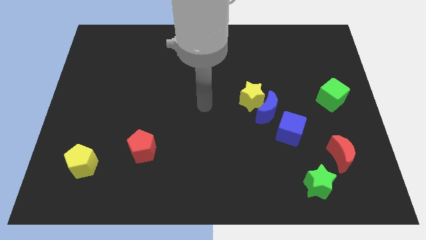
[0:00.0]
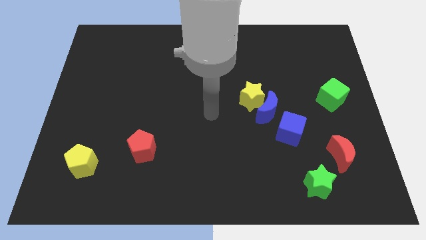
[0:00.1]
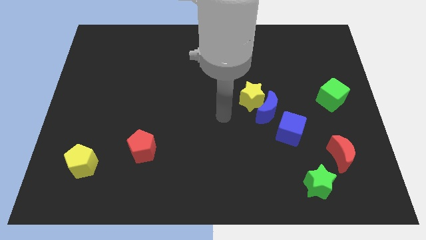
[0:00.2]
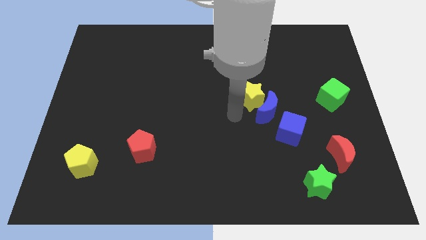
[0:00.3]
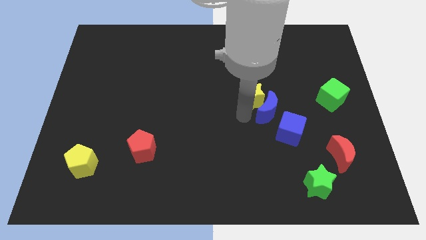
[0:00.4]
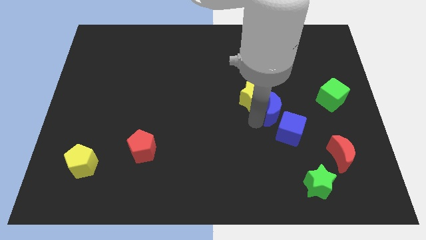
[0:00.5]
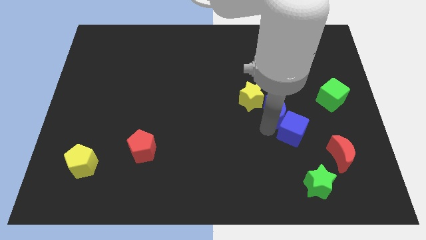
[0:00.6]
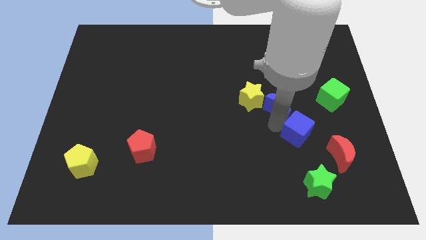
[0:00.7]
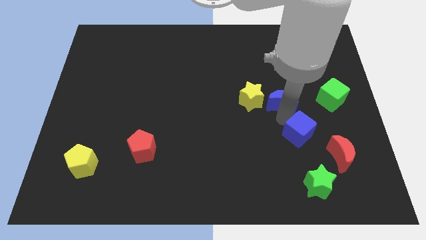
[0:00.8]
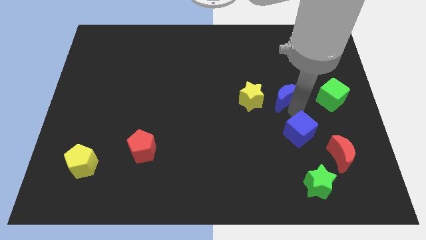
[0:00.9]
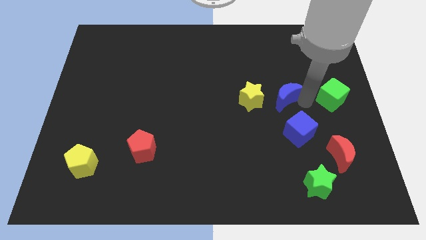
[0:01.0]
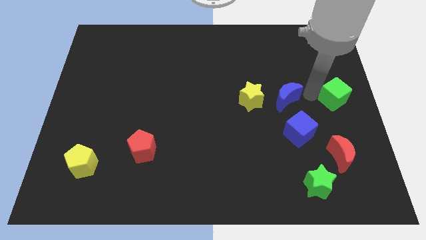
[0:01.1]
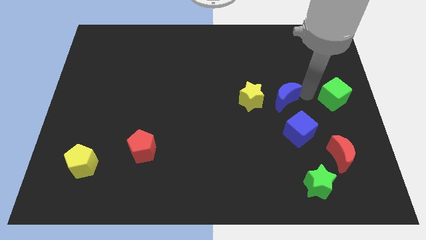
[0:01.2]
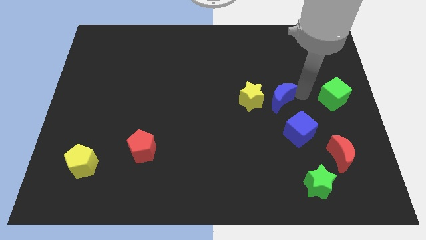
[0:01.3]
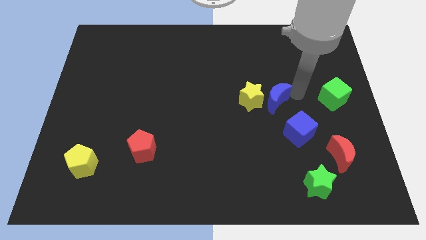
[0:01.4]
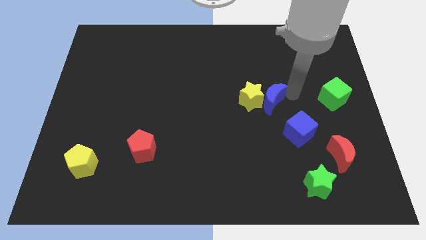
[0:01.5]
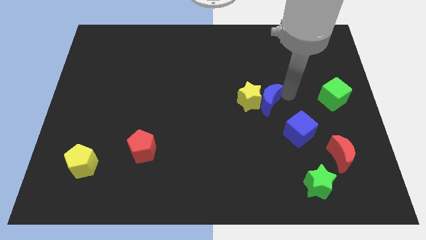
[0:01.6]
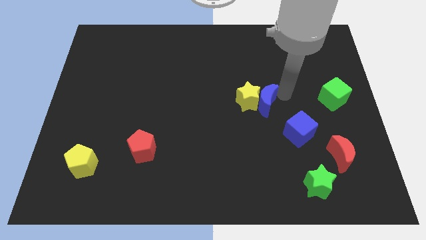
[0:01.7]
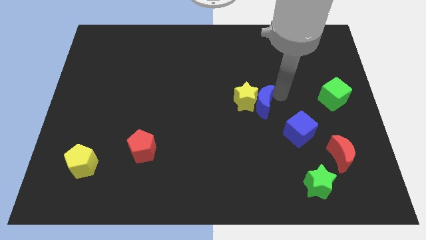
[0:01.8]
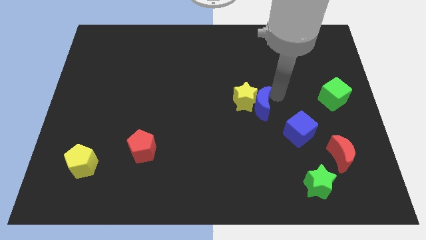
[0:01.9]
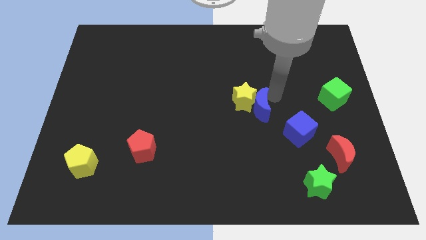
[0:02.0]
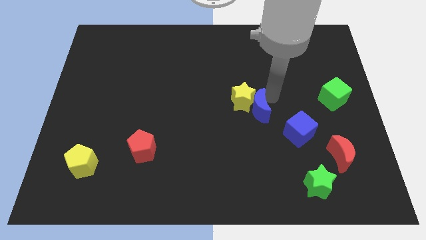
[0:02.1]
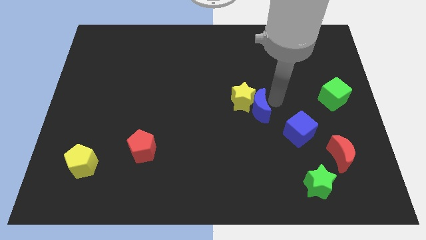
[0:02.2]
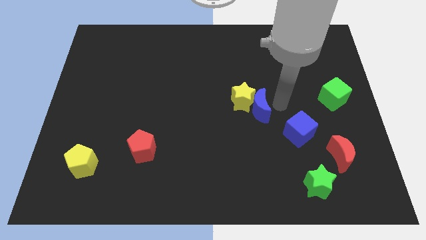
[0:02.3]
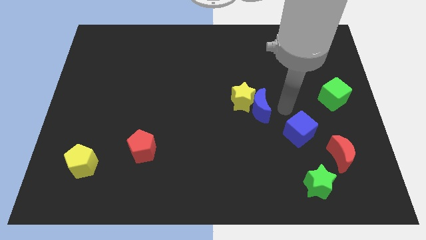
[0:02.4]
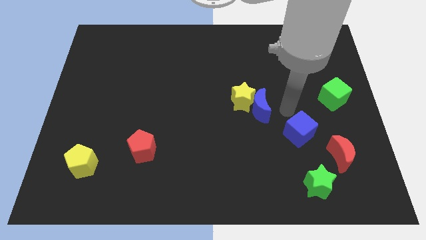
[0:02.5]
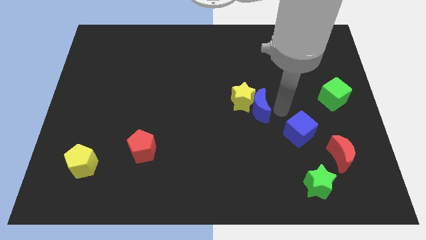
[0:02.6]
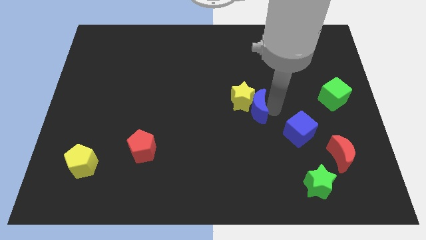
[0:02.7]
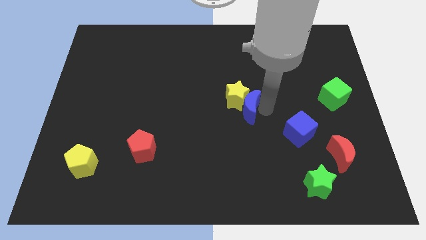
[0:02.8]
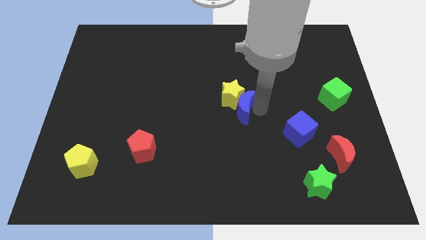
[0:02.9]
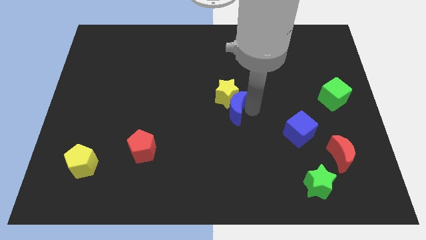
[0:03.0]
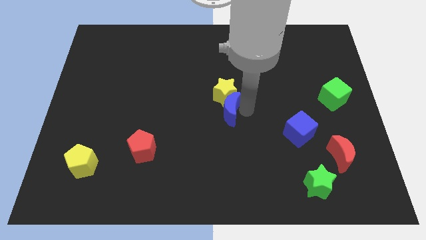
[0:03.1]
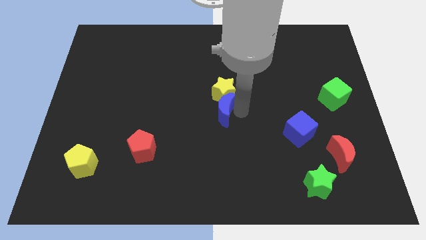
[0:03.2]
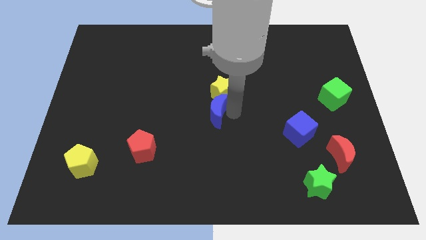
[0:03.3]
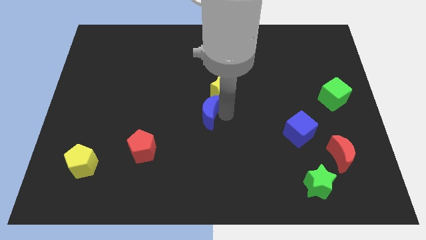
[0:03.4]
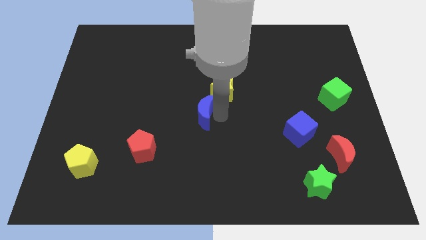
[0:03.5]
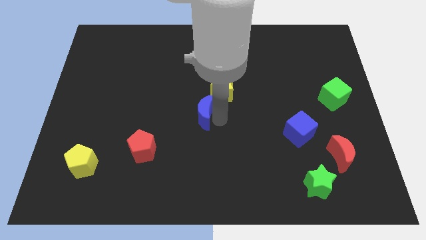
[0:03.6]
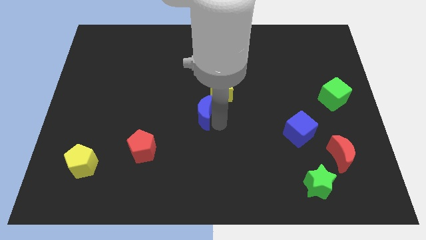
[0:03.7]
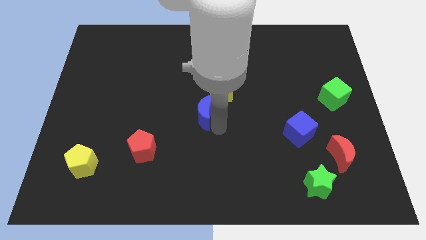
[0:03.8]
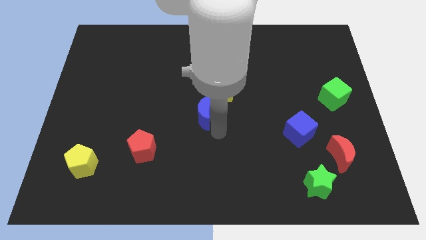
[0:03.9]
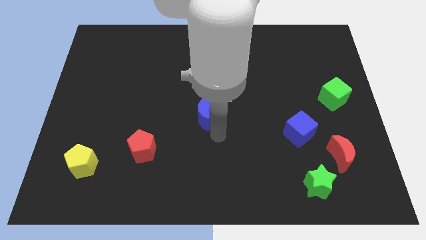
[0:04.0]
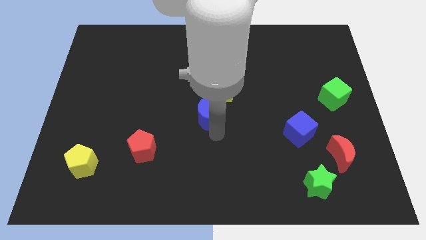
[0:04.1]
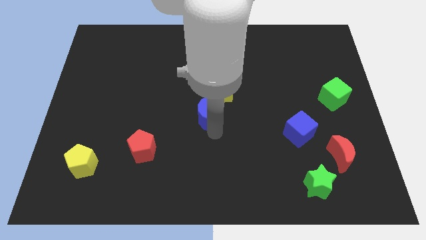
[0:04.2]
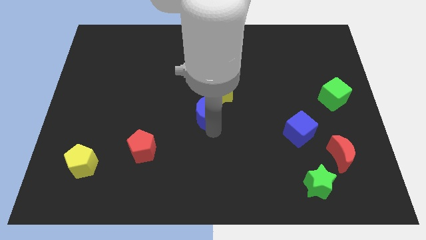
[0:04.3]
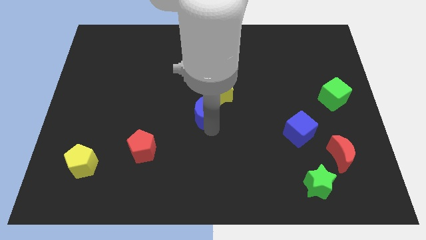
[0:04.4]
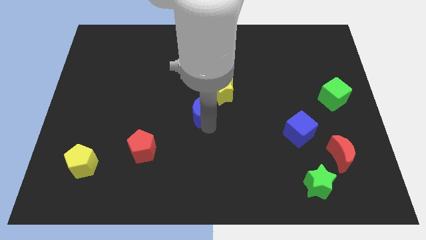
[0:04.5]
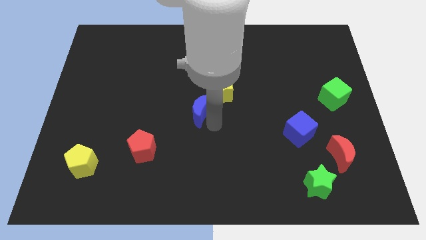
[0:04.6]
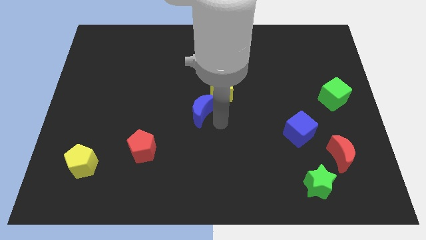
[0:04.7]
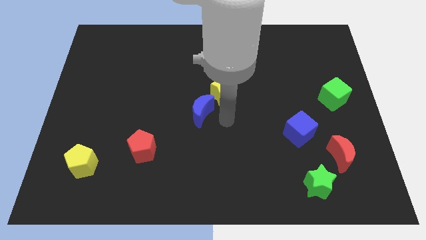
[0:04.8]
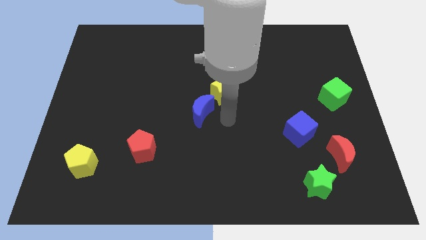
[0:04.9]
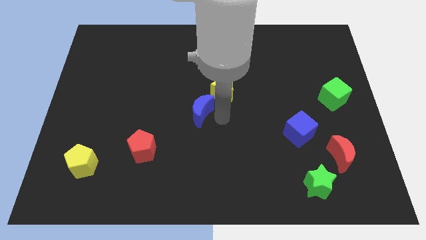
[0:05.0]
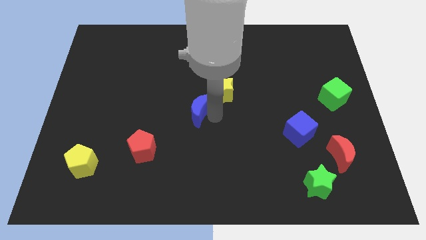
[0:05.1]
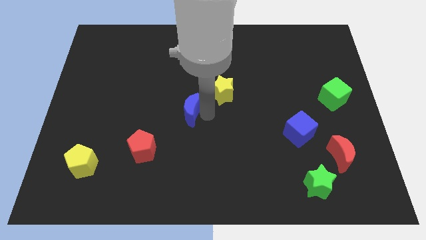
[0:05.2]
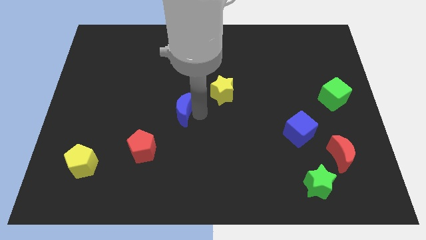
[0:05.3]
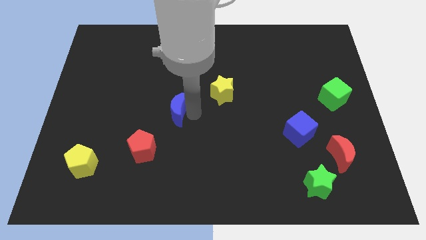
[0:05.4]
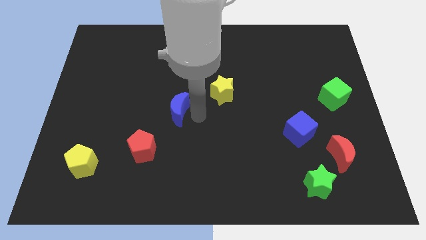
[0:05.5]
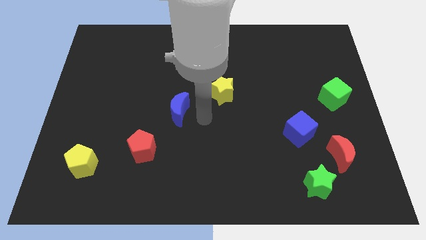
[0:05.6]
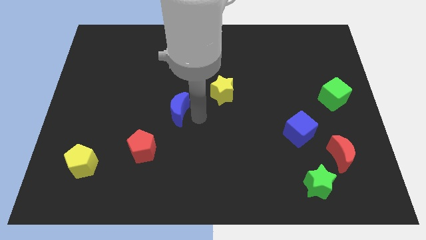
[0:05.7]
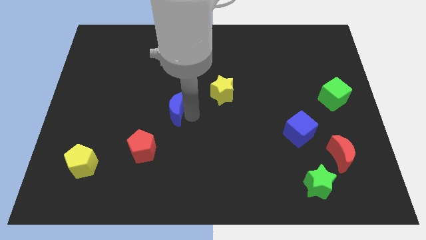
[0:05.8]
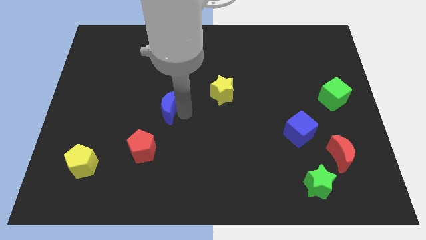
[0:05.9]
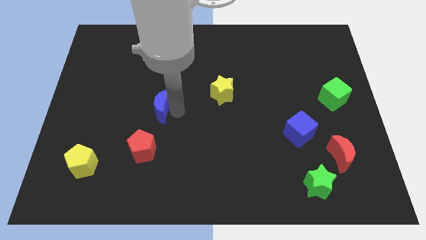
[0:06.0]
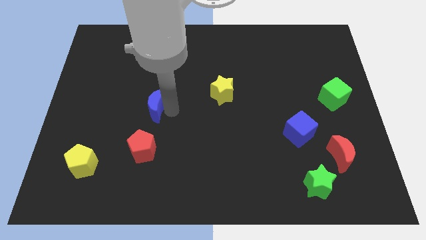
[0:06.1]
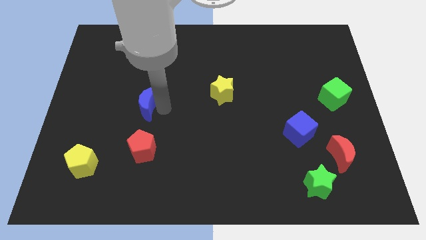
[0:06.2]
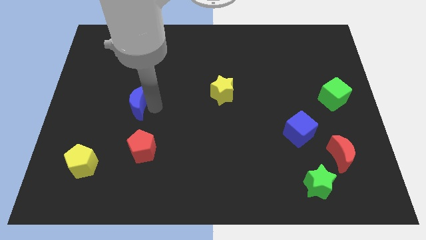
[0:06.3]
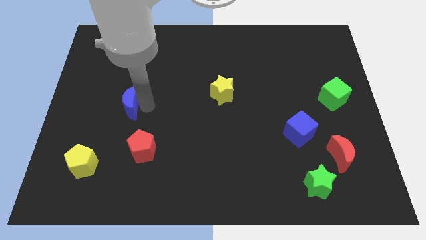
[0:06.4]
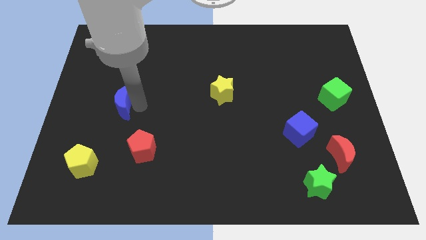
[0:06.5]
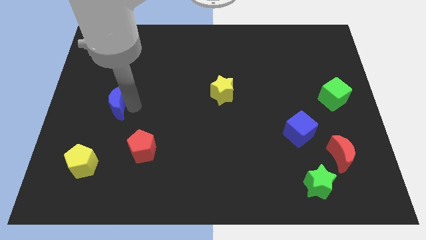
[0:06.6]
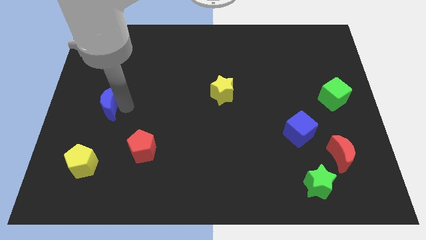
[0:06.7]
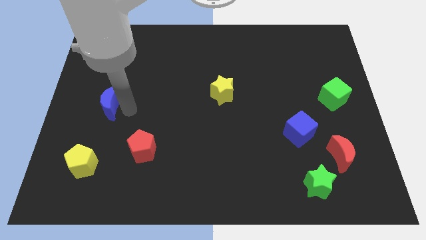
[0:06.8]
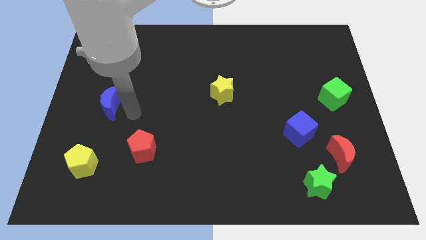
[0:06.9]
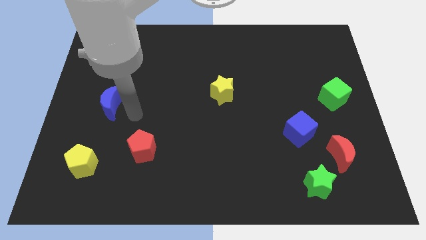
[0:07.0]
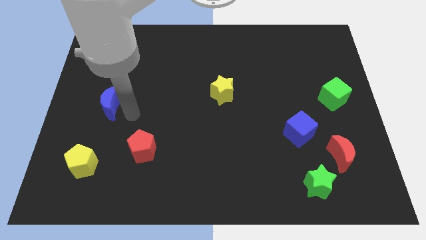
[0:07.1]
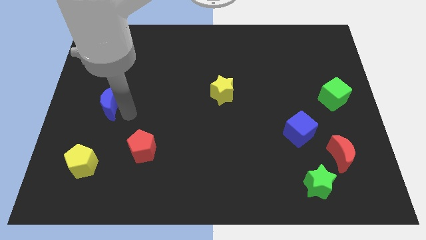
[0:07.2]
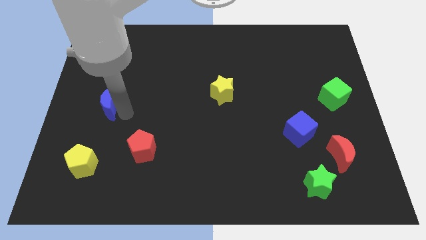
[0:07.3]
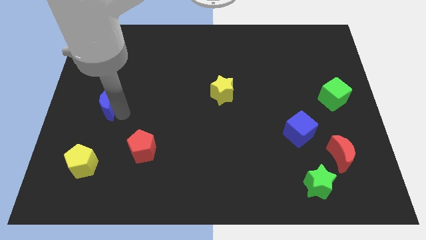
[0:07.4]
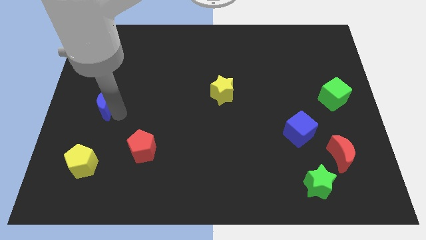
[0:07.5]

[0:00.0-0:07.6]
put the blue moon to the center left
